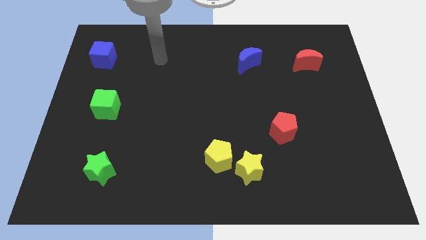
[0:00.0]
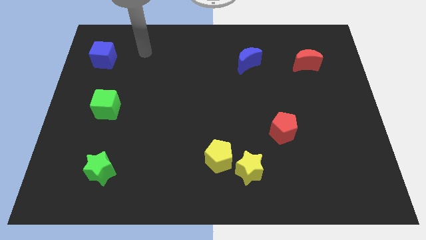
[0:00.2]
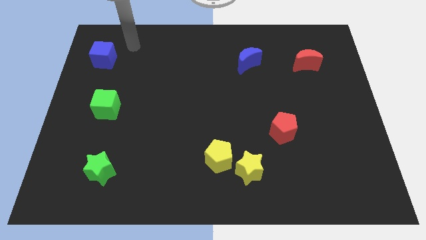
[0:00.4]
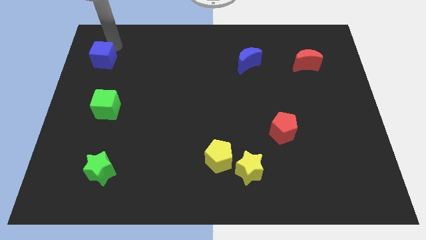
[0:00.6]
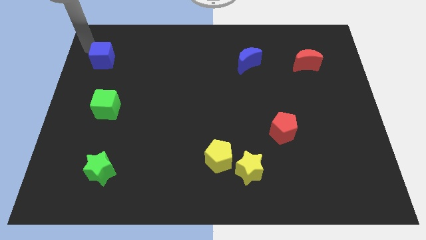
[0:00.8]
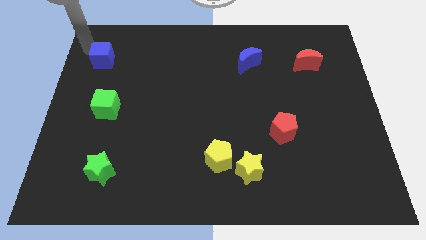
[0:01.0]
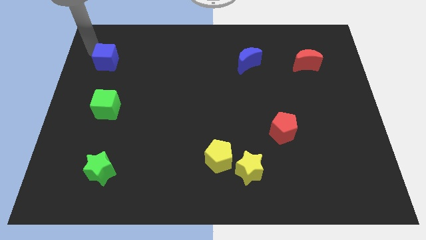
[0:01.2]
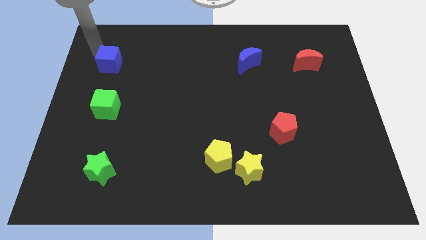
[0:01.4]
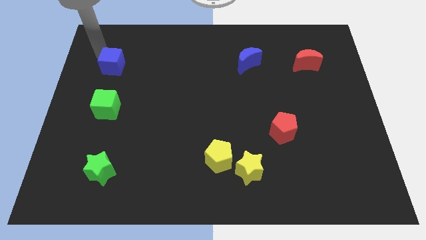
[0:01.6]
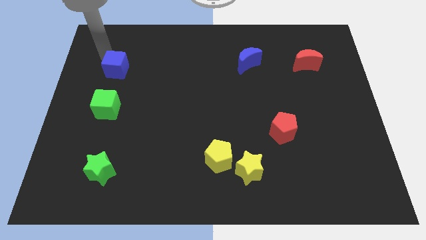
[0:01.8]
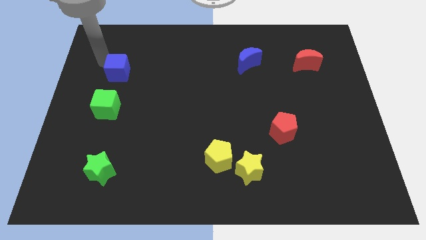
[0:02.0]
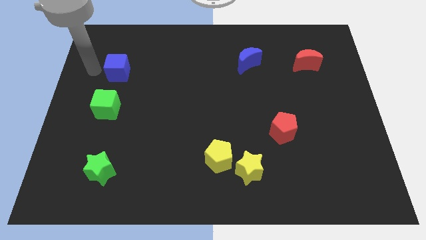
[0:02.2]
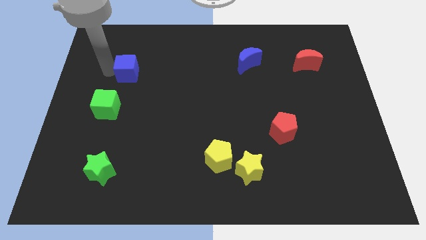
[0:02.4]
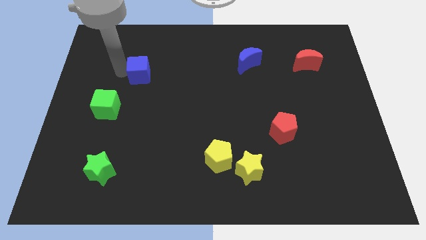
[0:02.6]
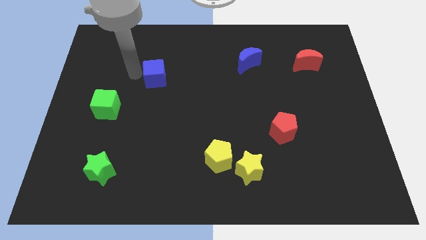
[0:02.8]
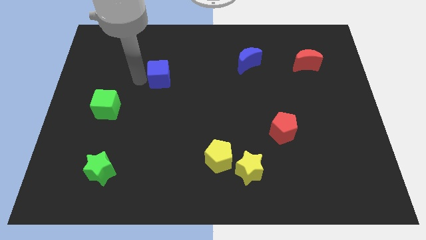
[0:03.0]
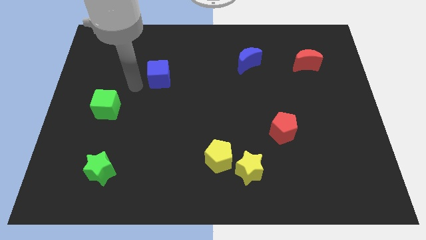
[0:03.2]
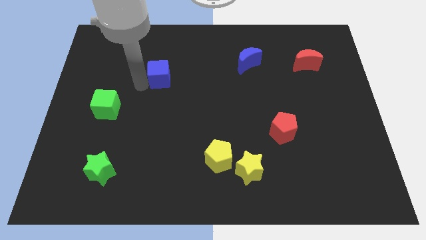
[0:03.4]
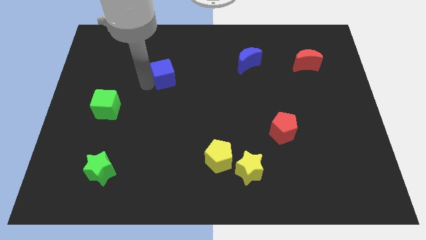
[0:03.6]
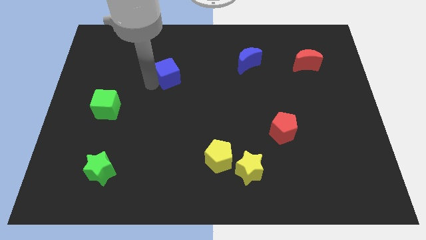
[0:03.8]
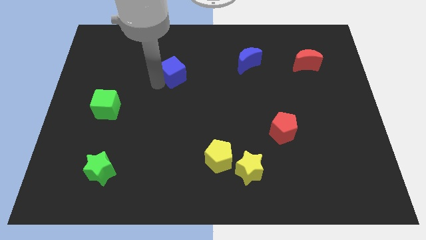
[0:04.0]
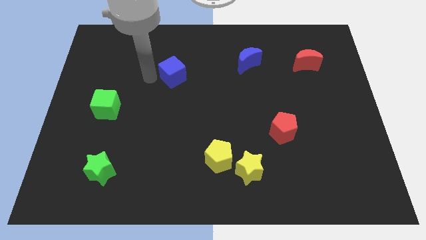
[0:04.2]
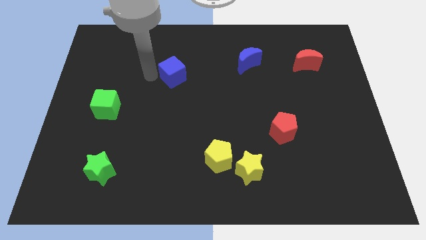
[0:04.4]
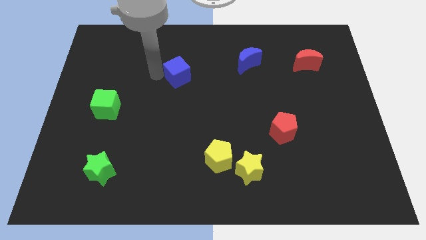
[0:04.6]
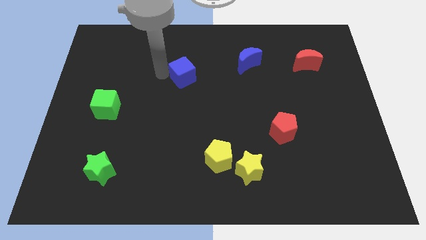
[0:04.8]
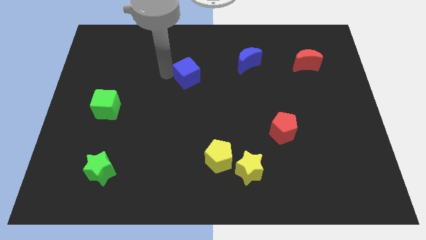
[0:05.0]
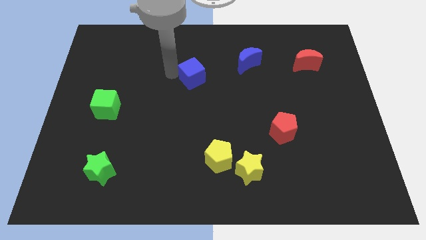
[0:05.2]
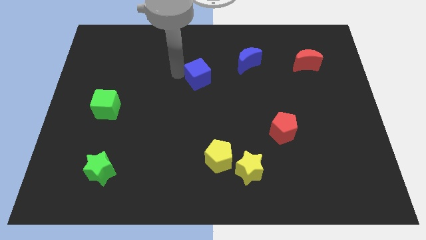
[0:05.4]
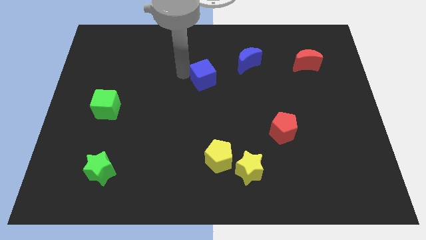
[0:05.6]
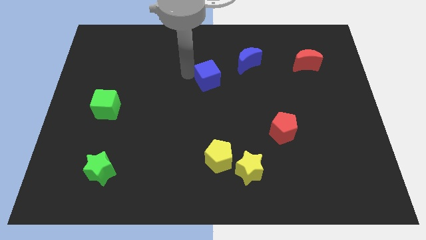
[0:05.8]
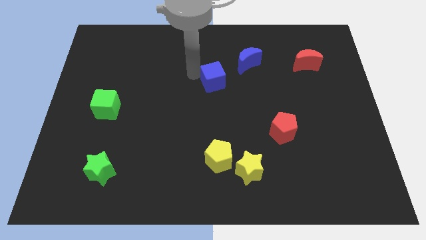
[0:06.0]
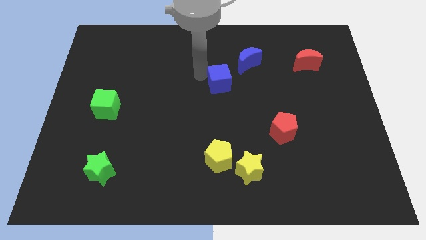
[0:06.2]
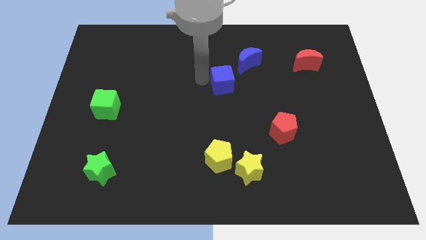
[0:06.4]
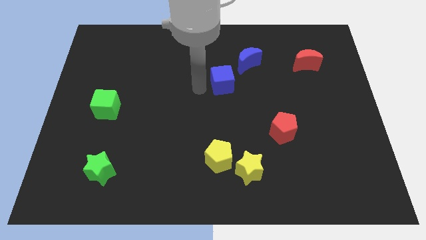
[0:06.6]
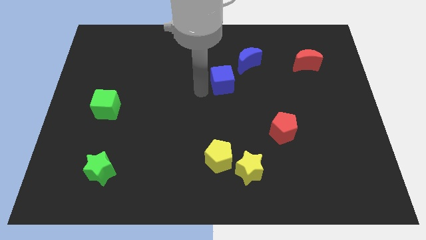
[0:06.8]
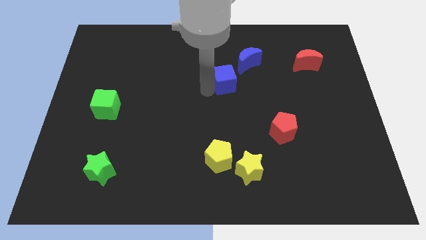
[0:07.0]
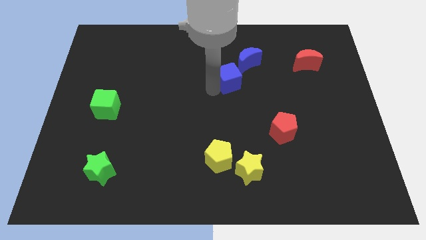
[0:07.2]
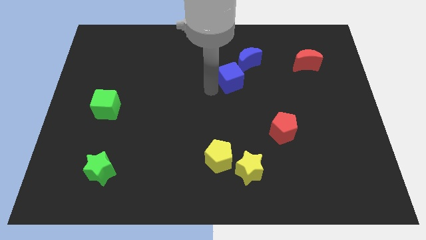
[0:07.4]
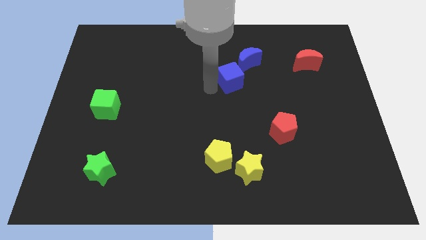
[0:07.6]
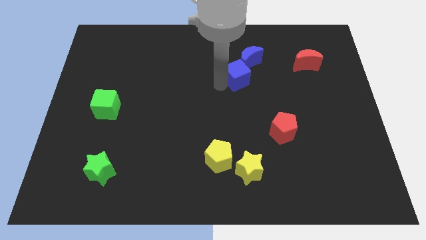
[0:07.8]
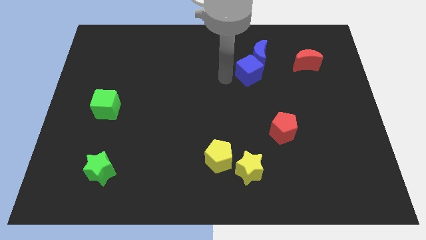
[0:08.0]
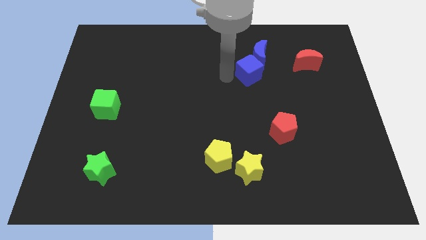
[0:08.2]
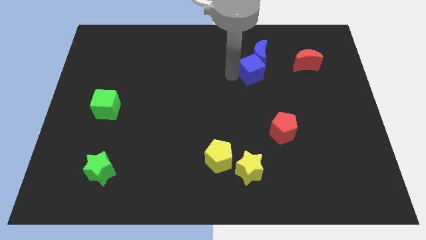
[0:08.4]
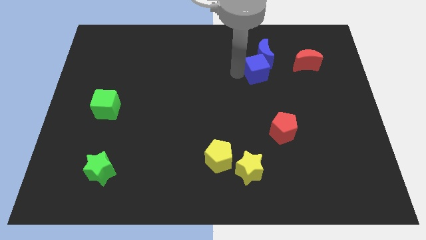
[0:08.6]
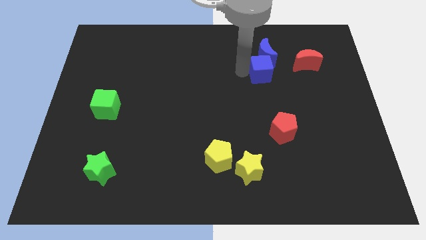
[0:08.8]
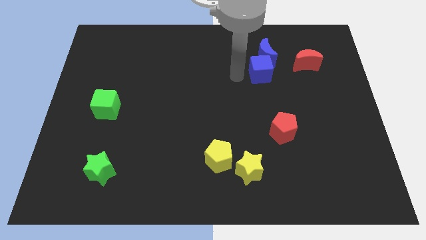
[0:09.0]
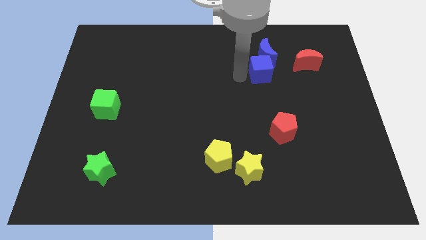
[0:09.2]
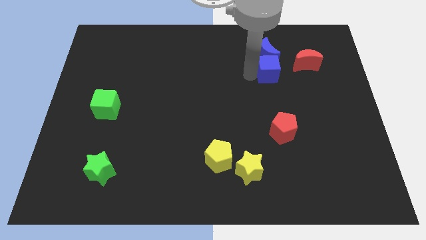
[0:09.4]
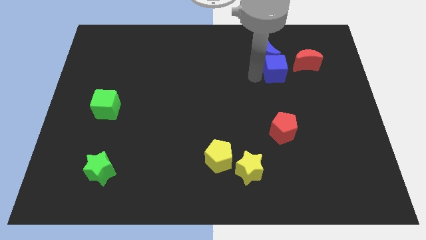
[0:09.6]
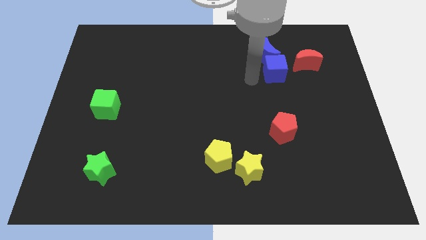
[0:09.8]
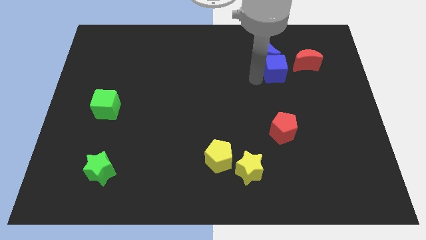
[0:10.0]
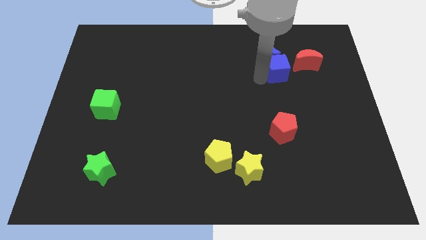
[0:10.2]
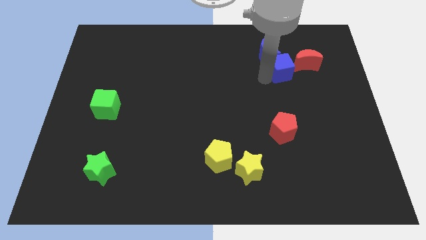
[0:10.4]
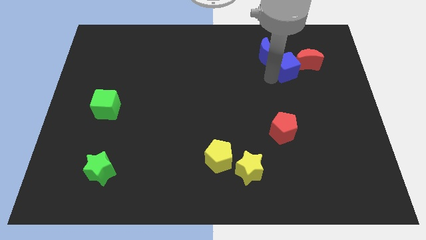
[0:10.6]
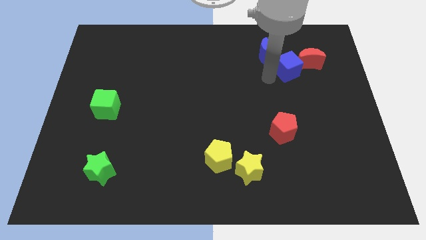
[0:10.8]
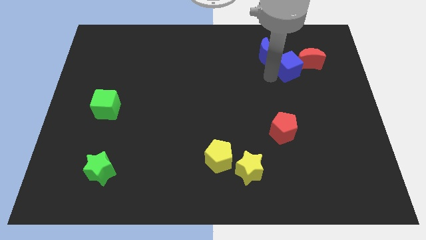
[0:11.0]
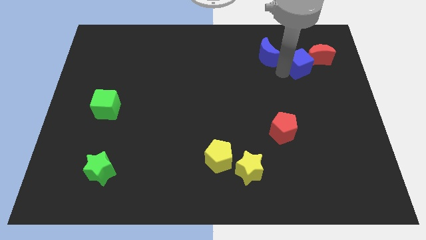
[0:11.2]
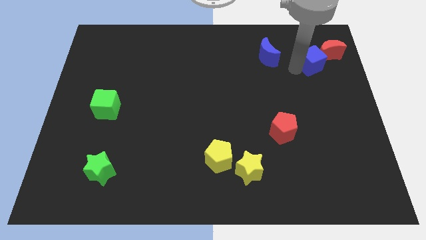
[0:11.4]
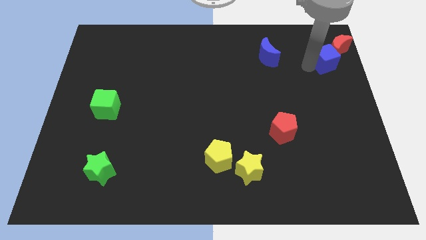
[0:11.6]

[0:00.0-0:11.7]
move the blue cube close to the red moon

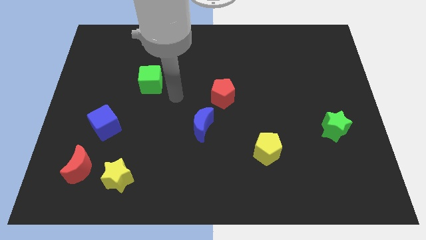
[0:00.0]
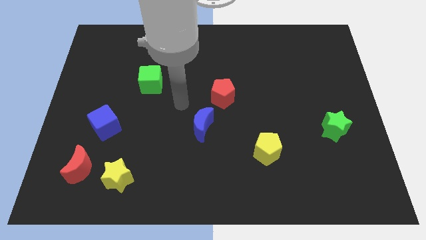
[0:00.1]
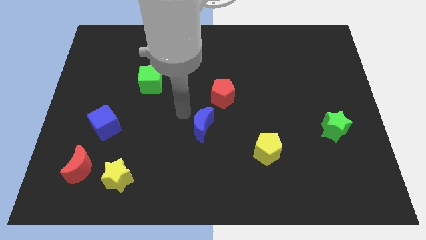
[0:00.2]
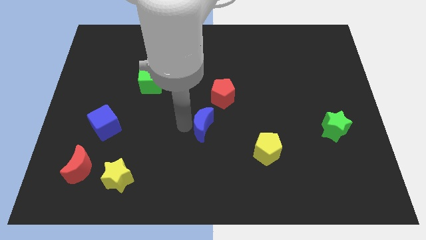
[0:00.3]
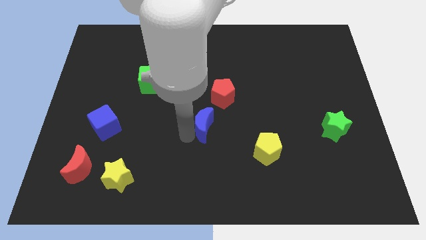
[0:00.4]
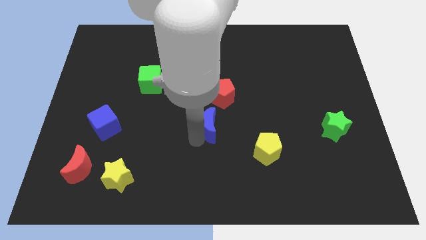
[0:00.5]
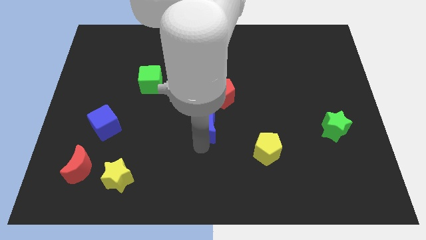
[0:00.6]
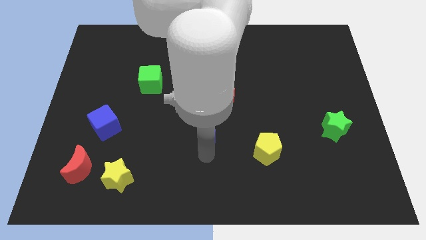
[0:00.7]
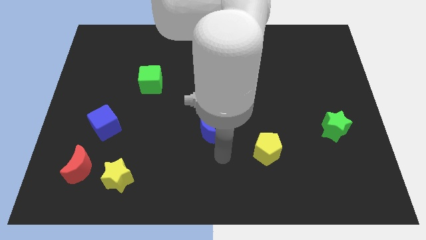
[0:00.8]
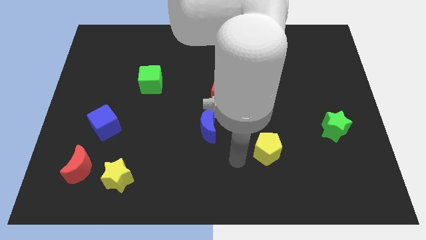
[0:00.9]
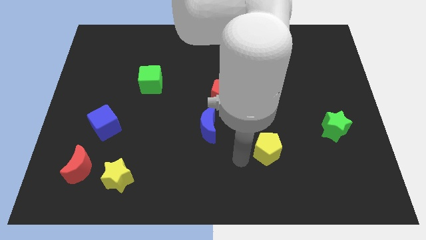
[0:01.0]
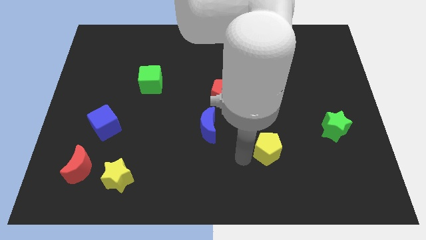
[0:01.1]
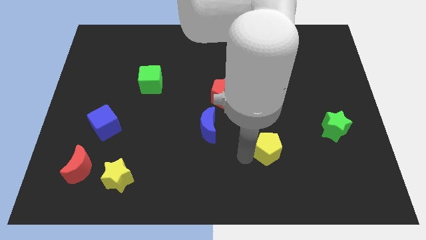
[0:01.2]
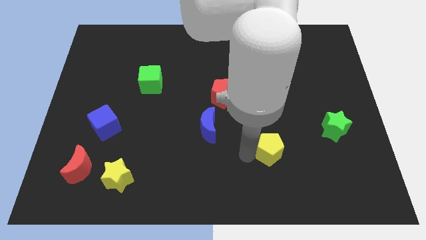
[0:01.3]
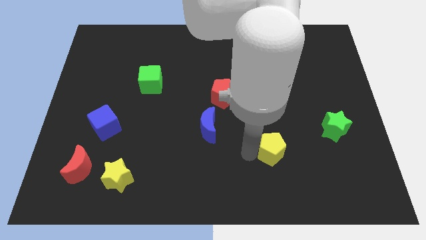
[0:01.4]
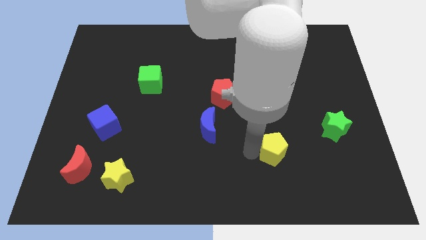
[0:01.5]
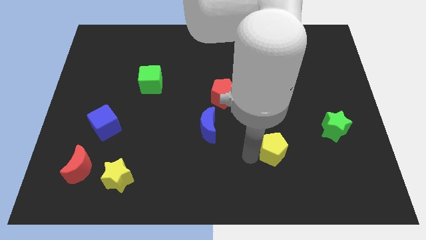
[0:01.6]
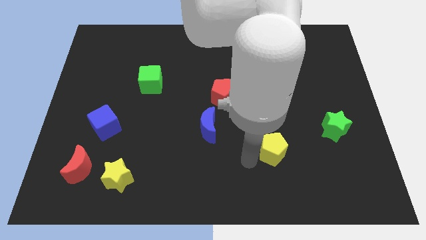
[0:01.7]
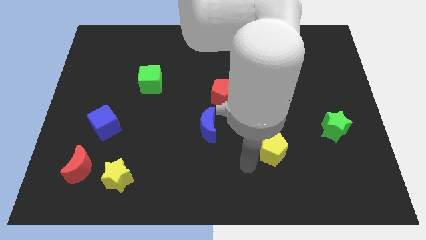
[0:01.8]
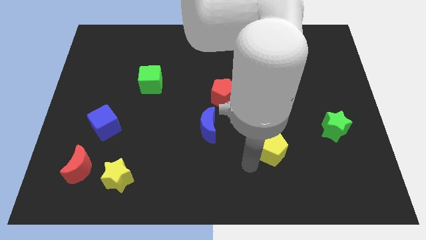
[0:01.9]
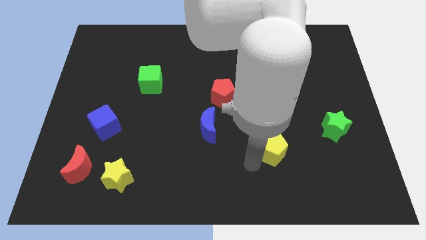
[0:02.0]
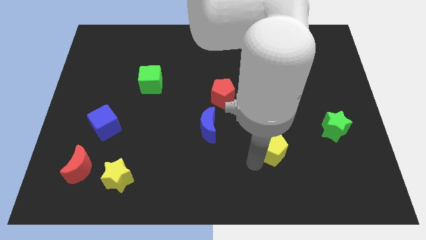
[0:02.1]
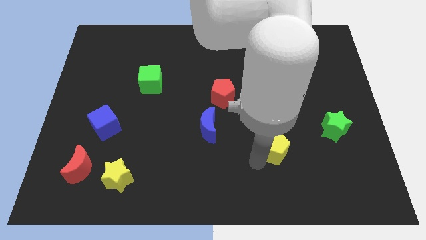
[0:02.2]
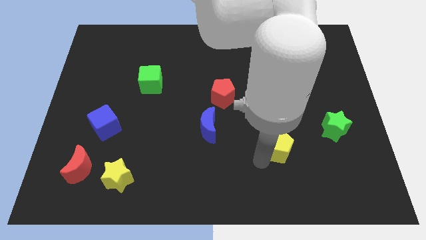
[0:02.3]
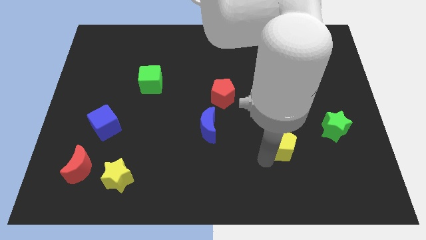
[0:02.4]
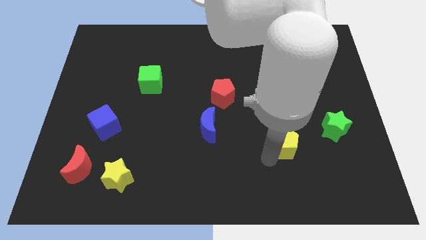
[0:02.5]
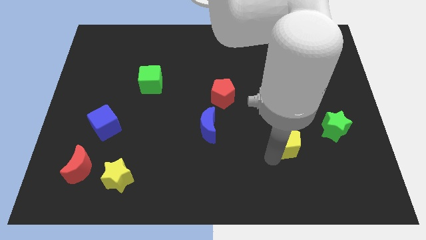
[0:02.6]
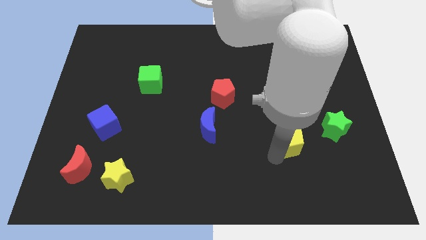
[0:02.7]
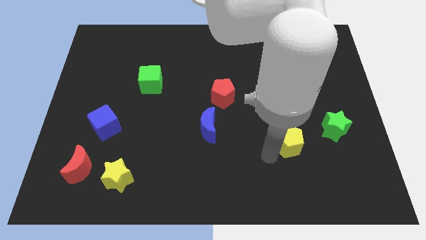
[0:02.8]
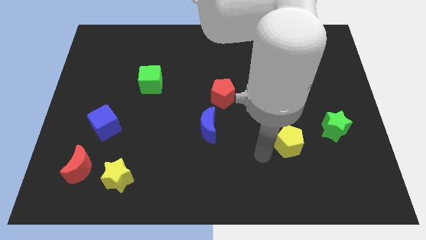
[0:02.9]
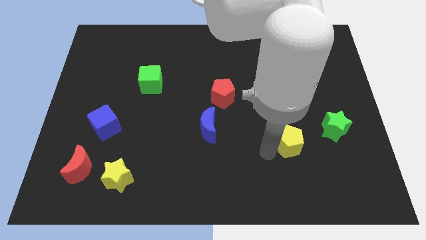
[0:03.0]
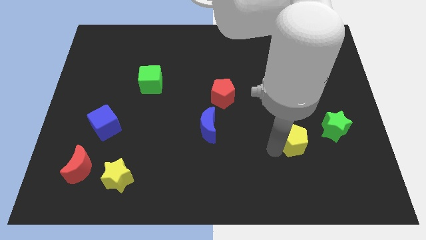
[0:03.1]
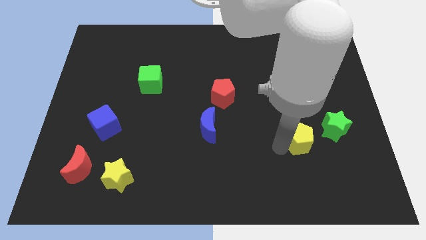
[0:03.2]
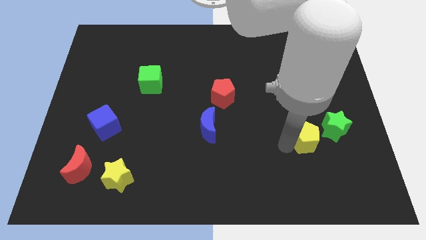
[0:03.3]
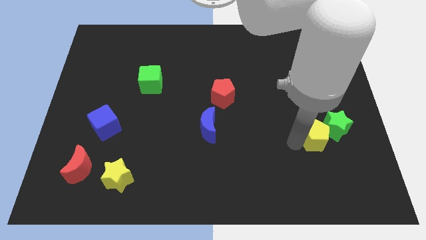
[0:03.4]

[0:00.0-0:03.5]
move the yellow pentagon towards the green star
